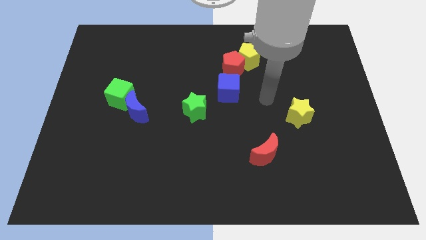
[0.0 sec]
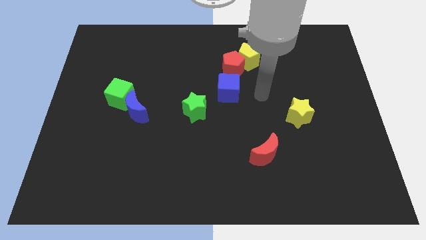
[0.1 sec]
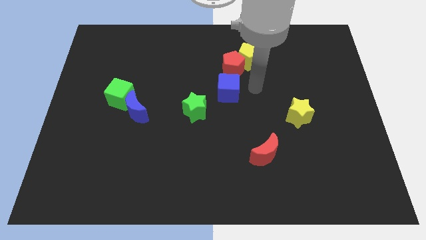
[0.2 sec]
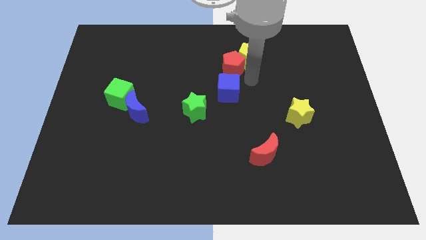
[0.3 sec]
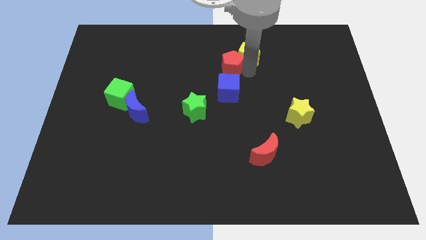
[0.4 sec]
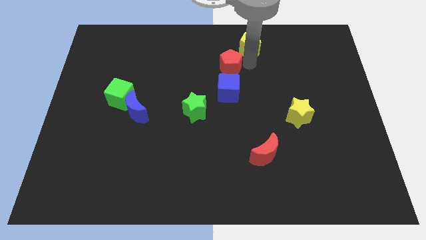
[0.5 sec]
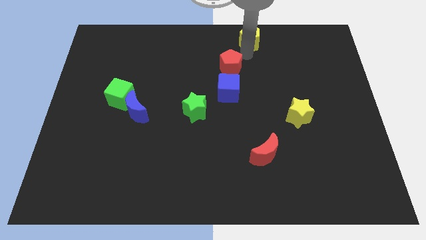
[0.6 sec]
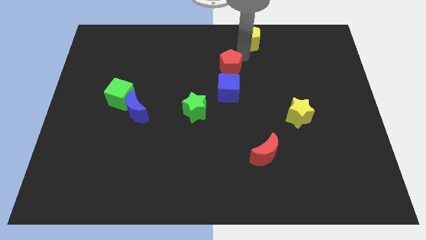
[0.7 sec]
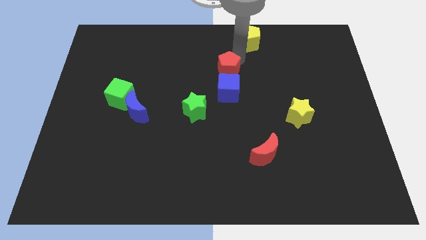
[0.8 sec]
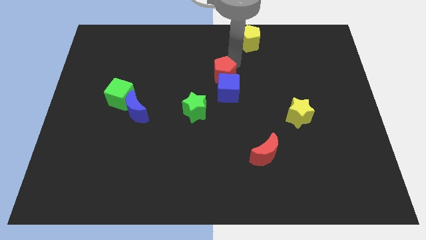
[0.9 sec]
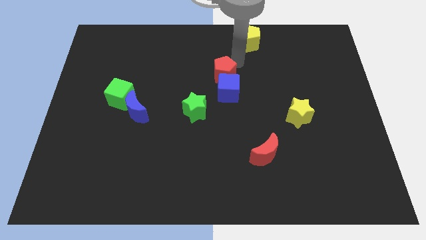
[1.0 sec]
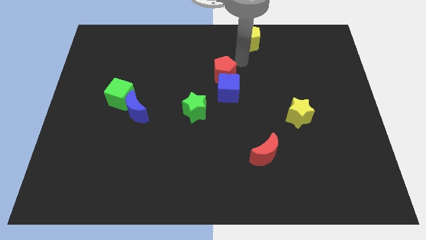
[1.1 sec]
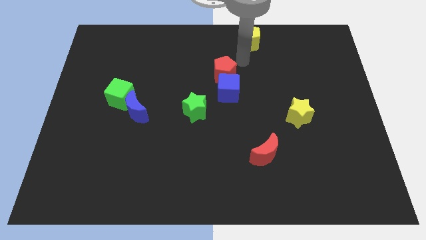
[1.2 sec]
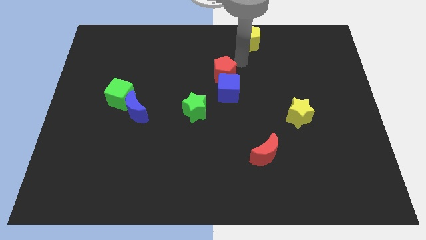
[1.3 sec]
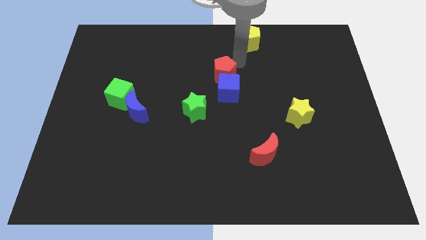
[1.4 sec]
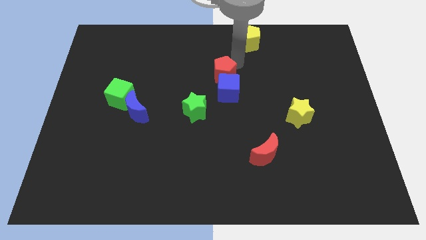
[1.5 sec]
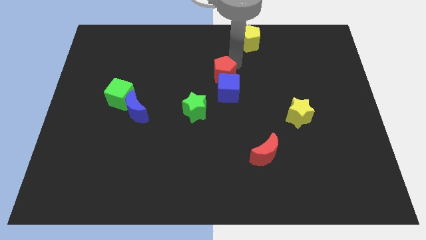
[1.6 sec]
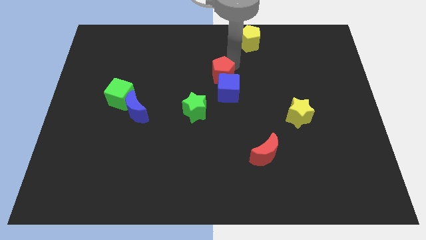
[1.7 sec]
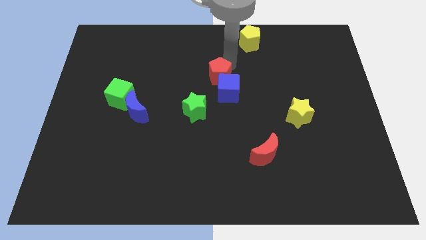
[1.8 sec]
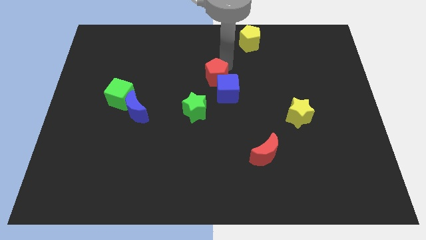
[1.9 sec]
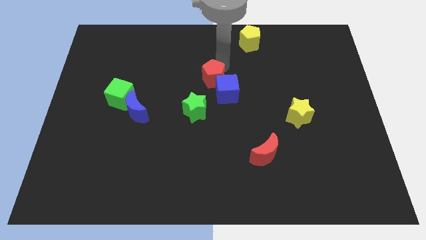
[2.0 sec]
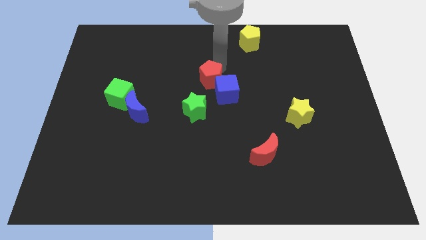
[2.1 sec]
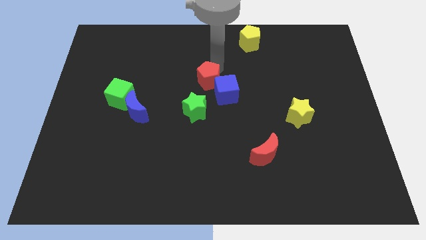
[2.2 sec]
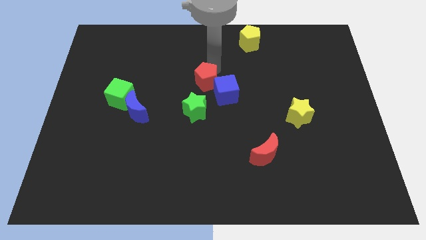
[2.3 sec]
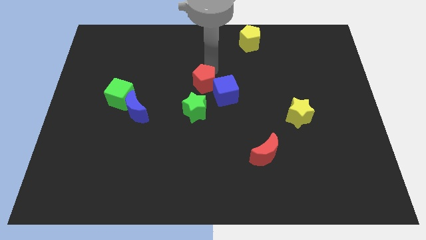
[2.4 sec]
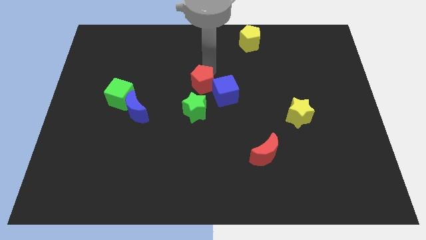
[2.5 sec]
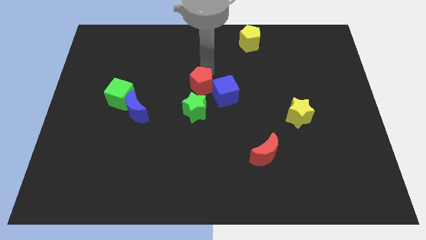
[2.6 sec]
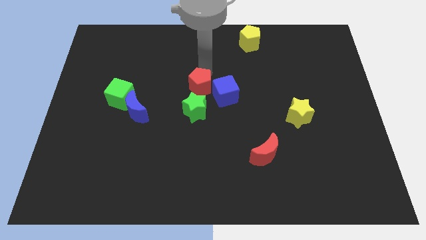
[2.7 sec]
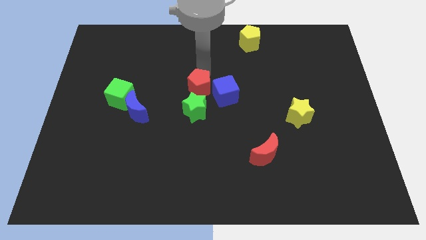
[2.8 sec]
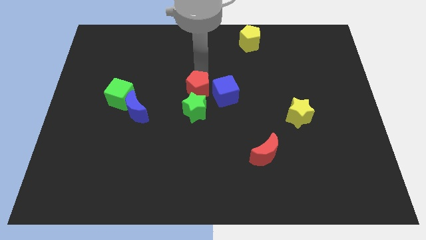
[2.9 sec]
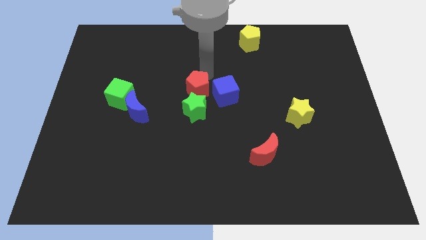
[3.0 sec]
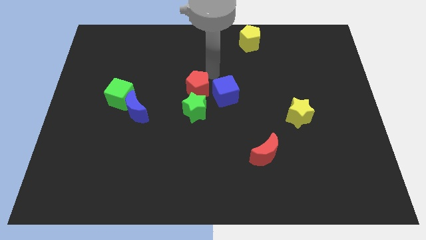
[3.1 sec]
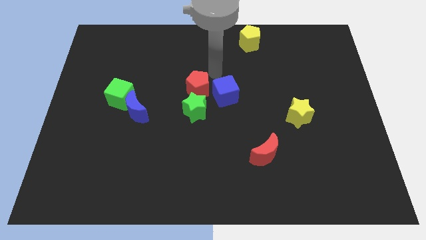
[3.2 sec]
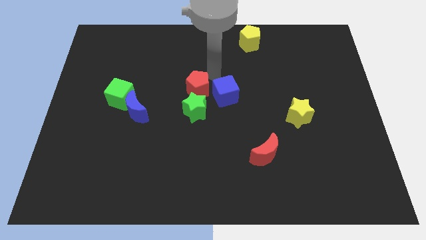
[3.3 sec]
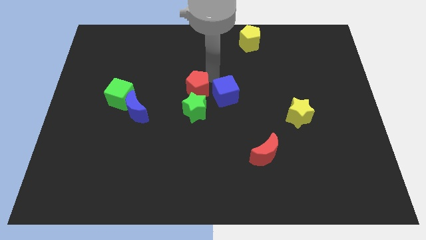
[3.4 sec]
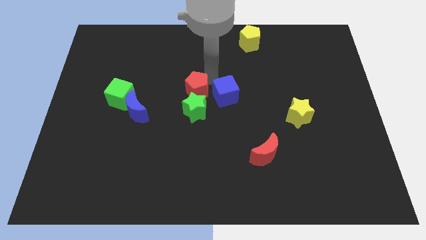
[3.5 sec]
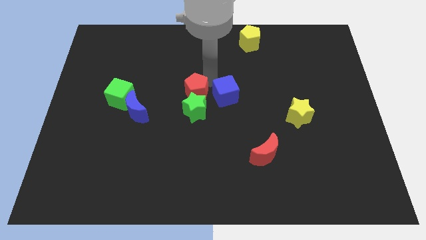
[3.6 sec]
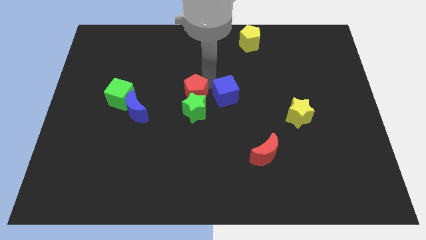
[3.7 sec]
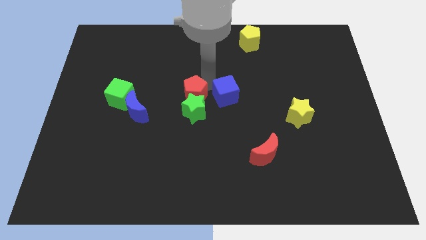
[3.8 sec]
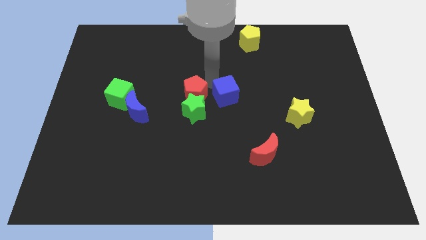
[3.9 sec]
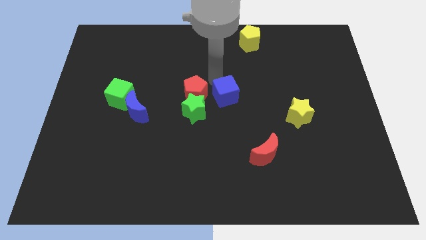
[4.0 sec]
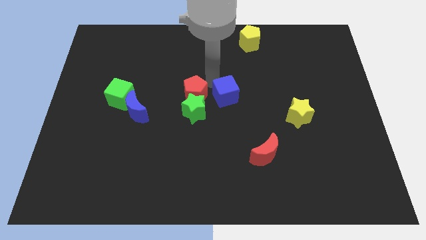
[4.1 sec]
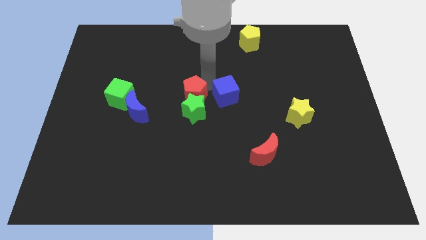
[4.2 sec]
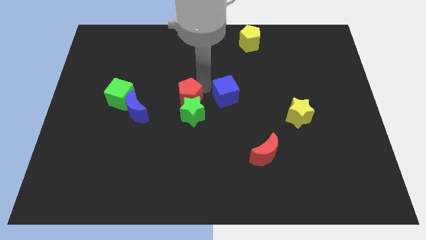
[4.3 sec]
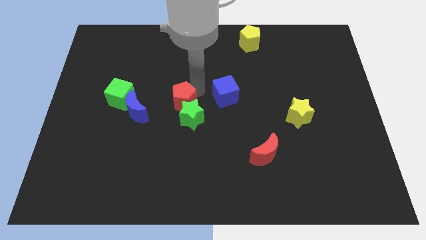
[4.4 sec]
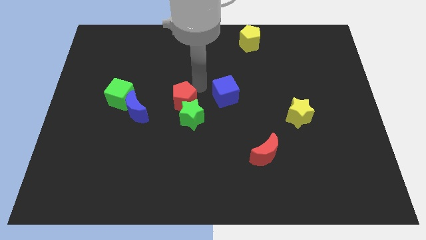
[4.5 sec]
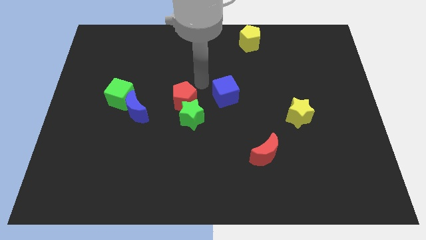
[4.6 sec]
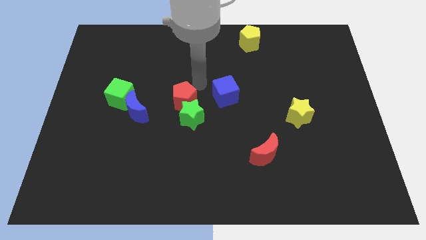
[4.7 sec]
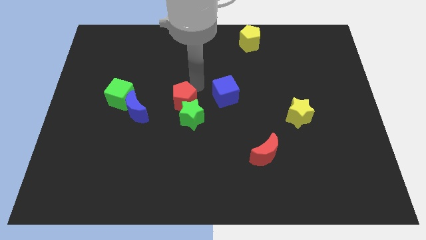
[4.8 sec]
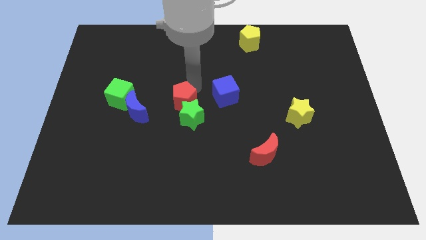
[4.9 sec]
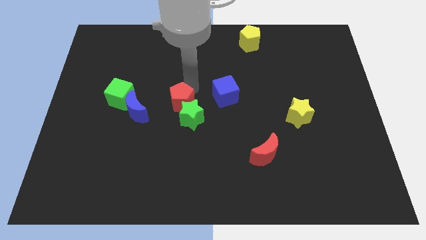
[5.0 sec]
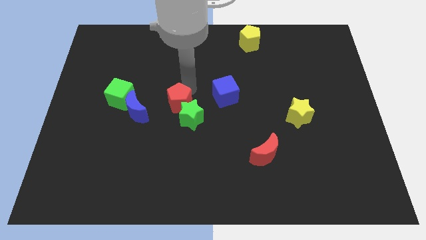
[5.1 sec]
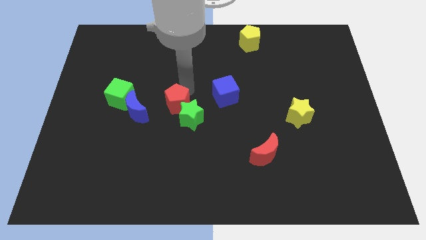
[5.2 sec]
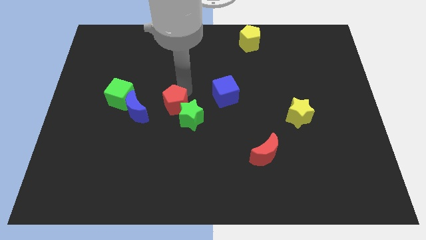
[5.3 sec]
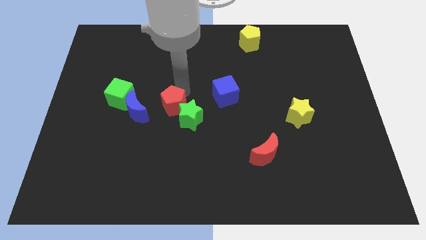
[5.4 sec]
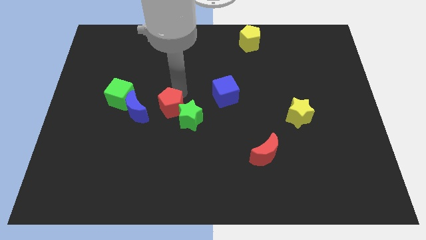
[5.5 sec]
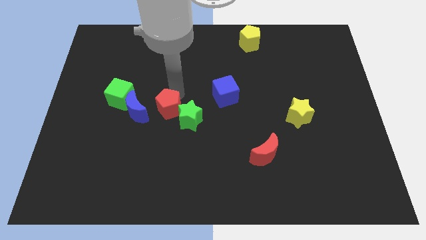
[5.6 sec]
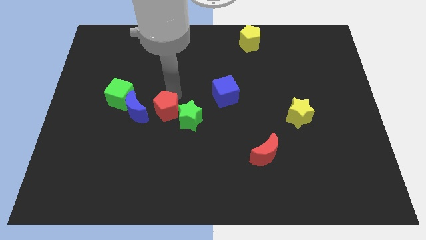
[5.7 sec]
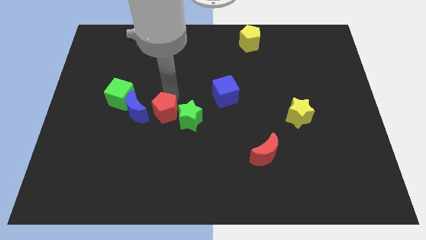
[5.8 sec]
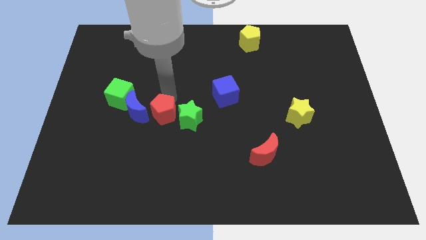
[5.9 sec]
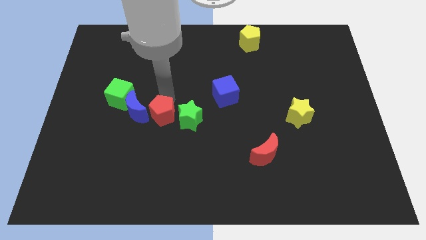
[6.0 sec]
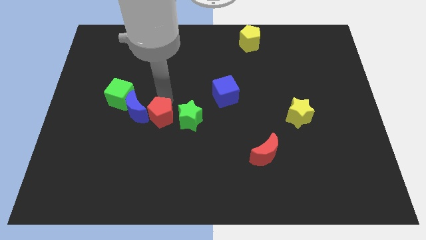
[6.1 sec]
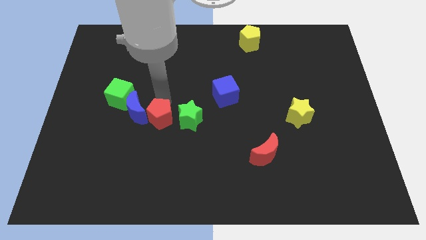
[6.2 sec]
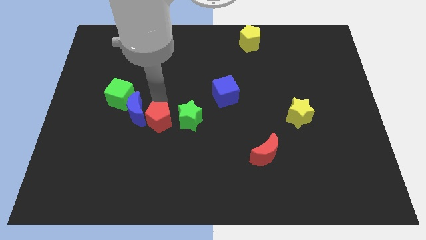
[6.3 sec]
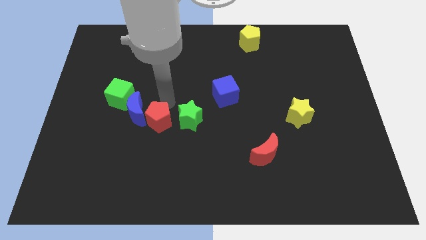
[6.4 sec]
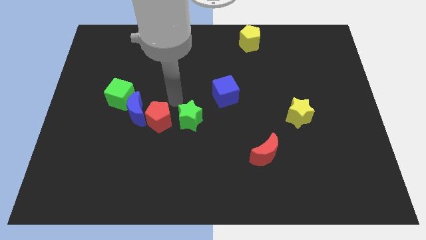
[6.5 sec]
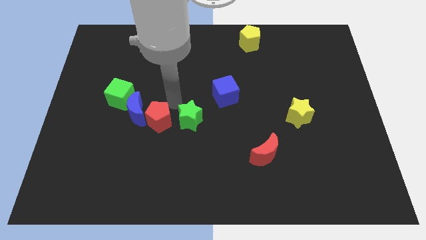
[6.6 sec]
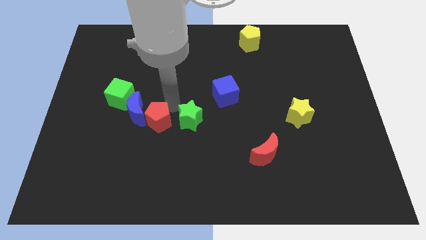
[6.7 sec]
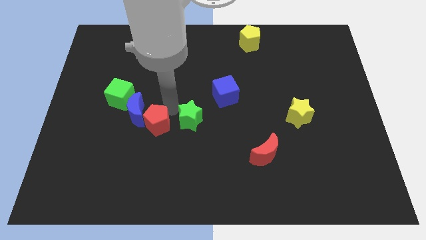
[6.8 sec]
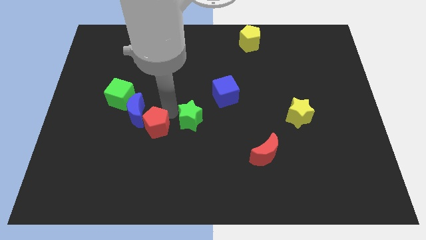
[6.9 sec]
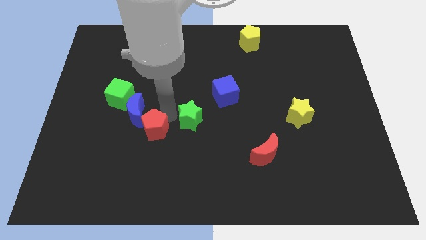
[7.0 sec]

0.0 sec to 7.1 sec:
push the red pentagon to the bottom of the blue moon

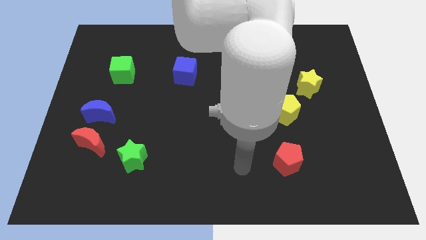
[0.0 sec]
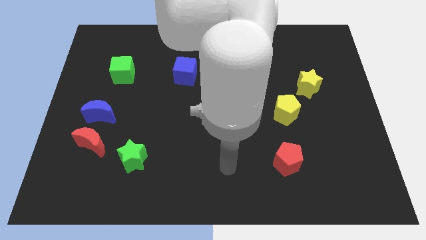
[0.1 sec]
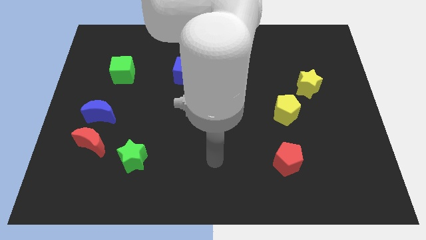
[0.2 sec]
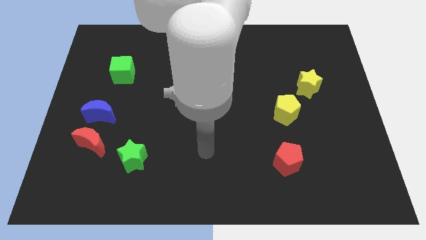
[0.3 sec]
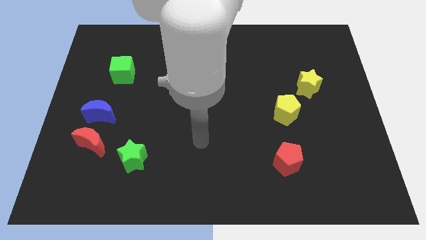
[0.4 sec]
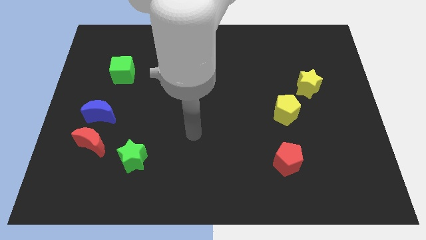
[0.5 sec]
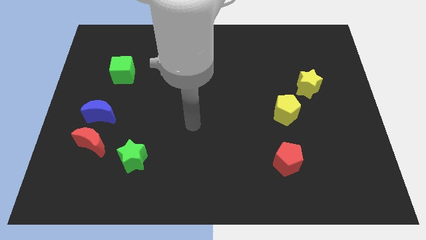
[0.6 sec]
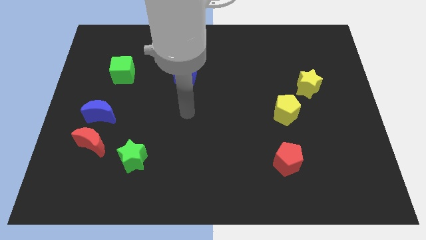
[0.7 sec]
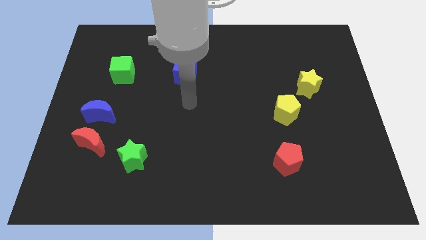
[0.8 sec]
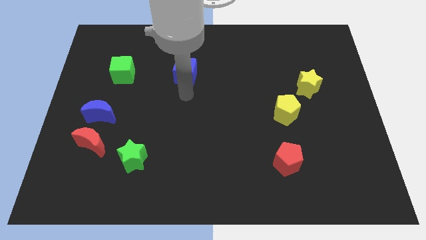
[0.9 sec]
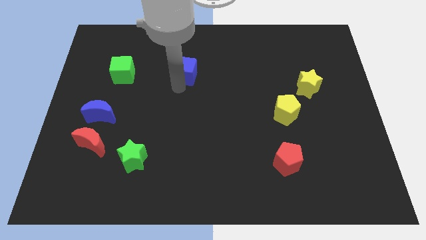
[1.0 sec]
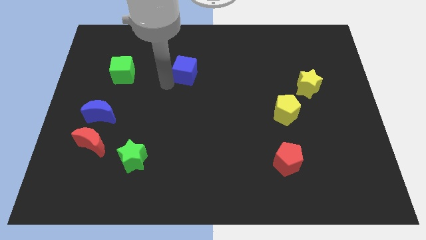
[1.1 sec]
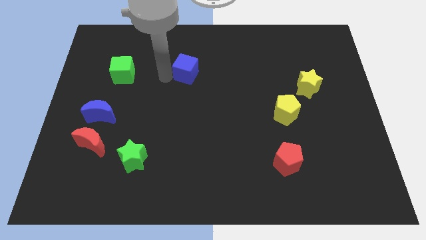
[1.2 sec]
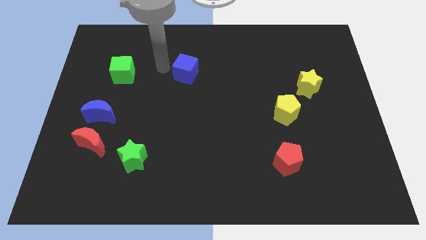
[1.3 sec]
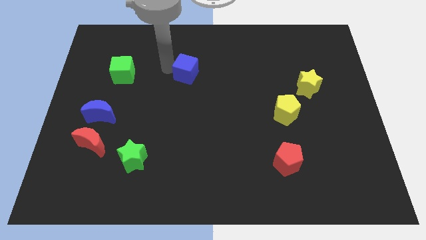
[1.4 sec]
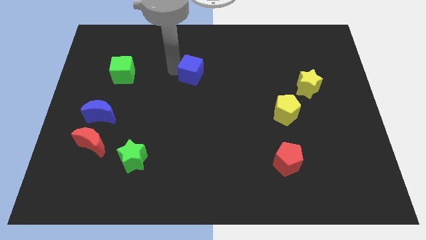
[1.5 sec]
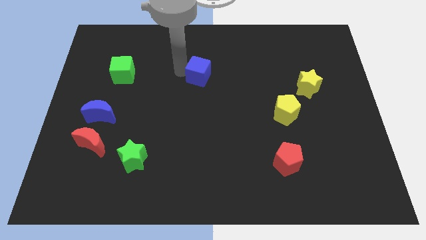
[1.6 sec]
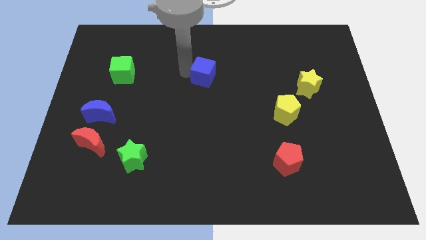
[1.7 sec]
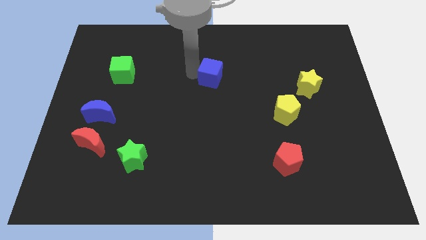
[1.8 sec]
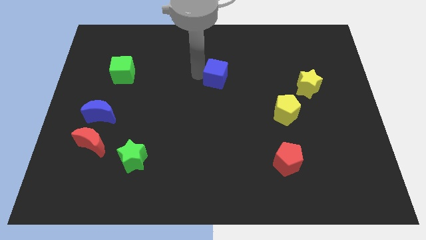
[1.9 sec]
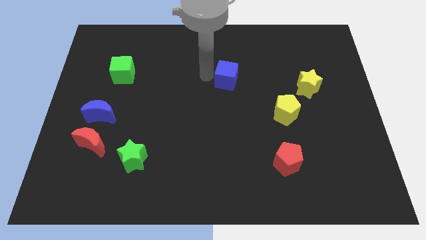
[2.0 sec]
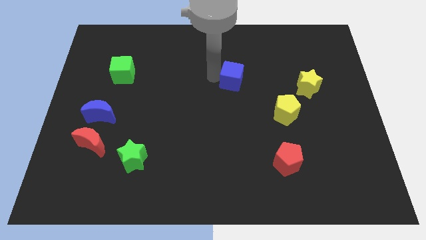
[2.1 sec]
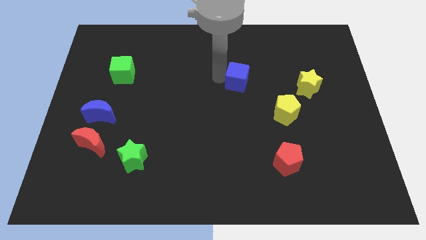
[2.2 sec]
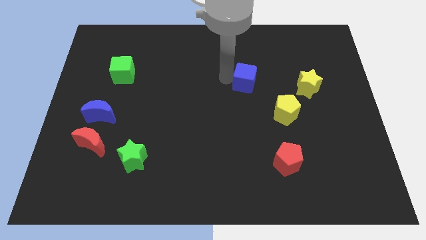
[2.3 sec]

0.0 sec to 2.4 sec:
put the blue cube left of the yellow star
